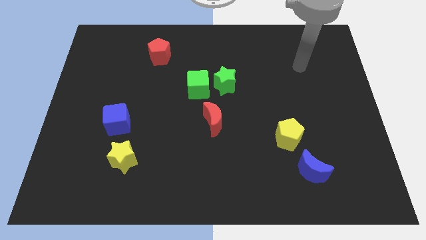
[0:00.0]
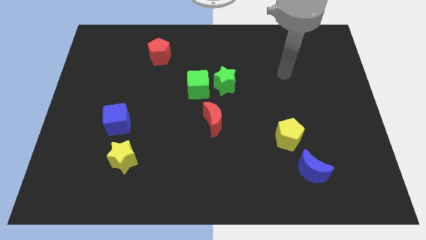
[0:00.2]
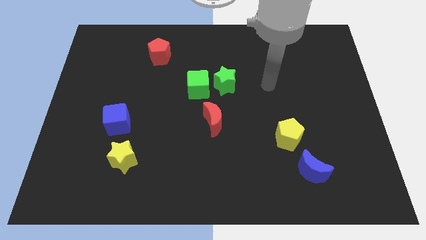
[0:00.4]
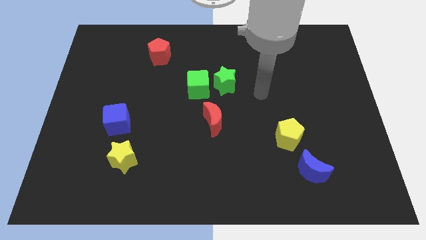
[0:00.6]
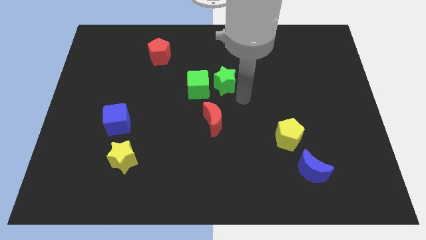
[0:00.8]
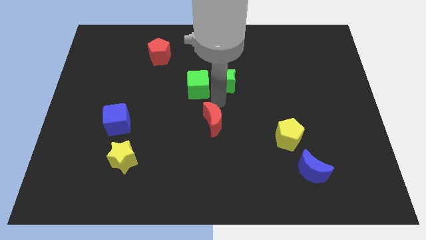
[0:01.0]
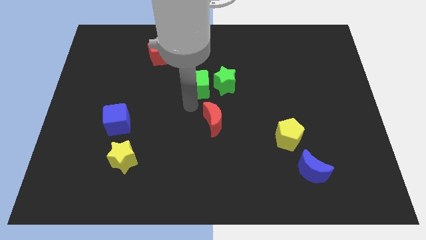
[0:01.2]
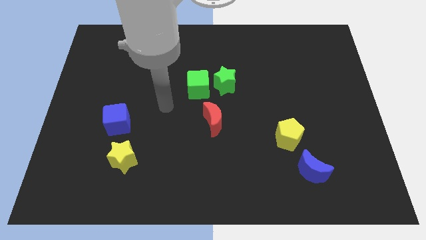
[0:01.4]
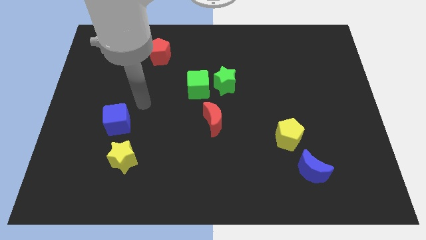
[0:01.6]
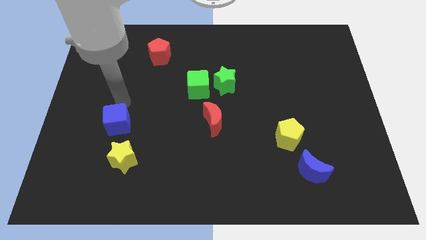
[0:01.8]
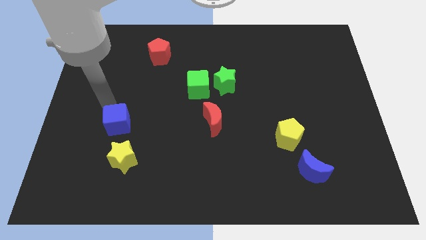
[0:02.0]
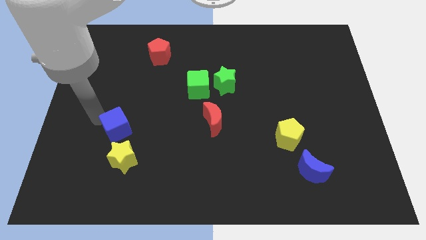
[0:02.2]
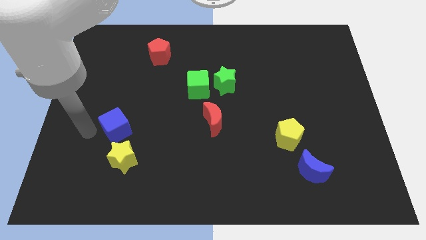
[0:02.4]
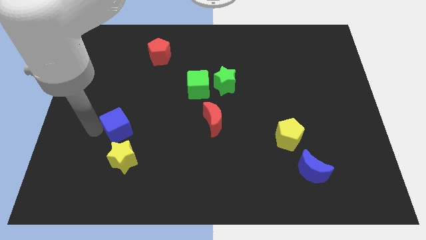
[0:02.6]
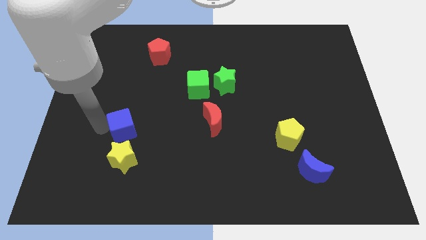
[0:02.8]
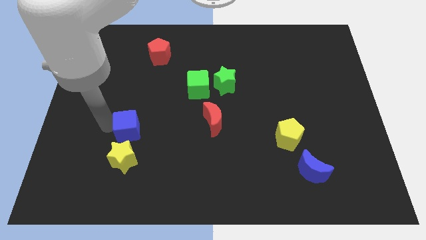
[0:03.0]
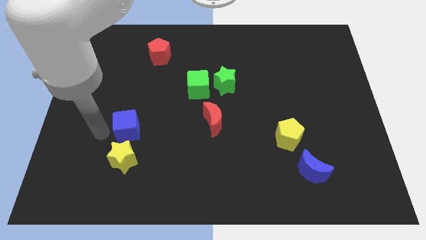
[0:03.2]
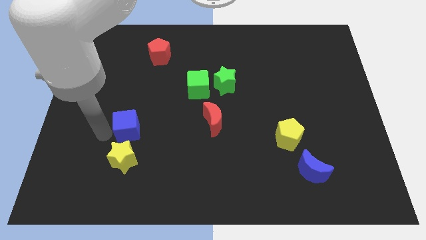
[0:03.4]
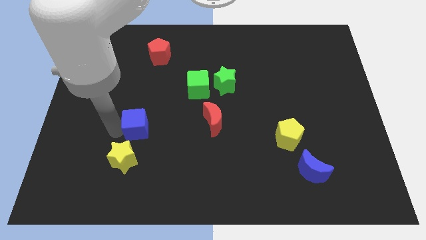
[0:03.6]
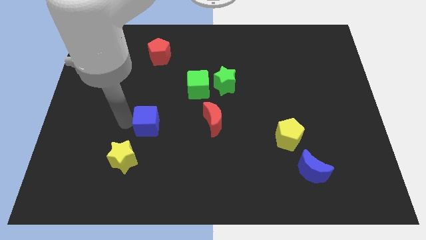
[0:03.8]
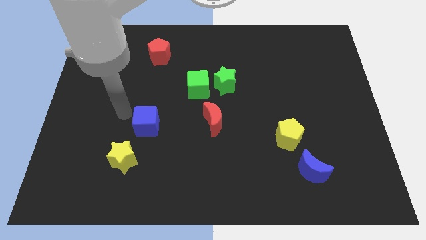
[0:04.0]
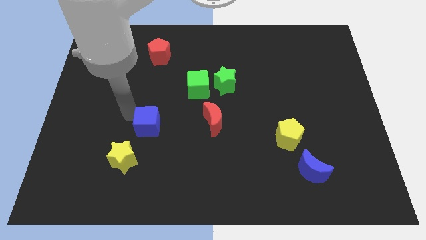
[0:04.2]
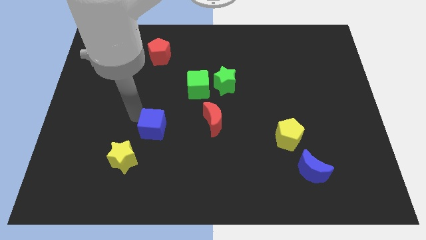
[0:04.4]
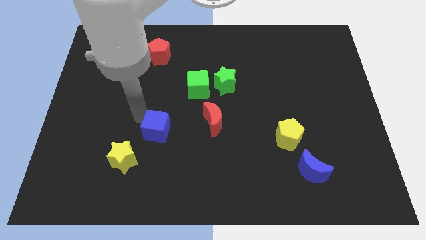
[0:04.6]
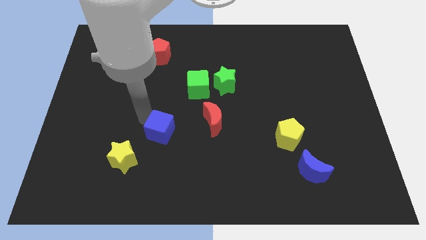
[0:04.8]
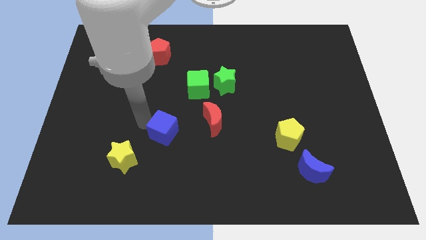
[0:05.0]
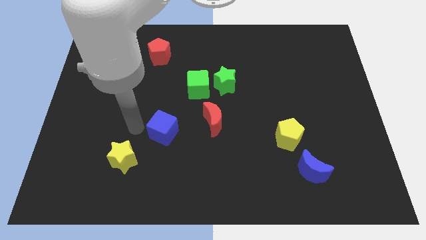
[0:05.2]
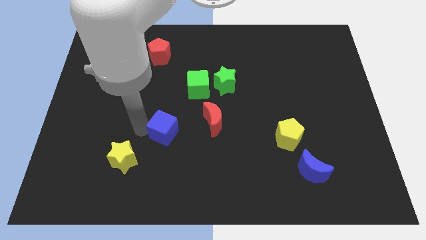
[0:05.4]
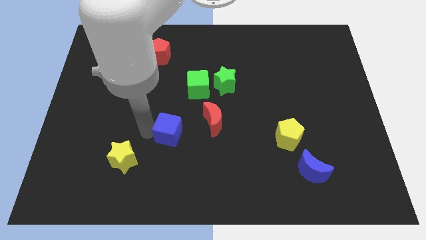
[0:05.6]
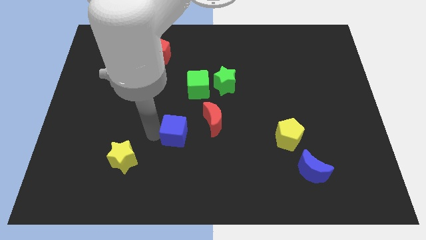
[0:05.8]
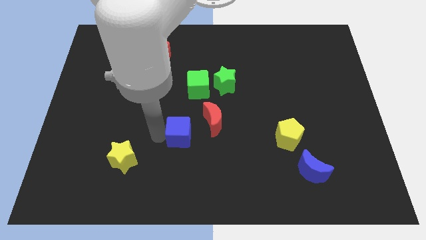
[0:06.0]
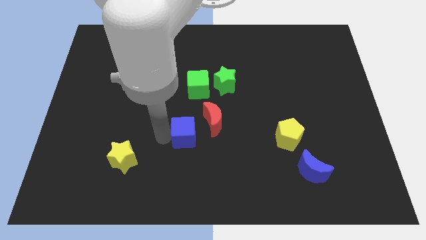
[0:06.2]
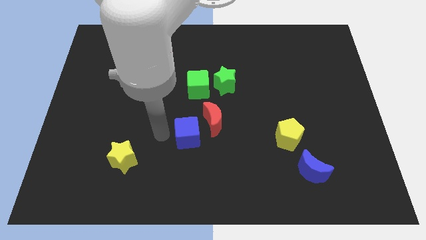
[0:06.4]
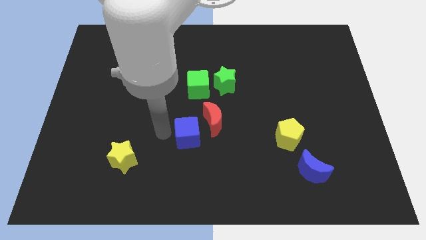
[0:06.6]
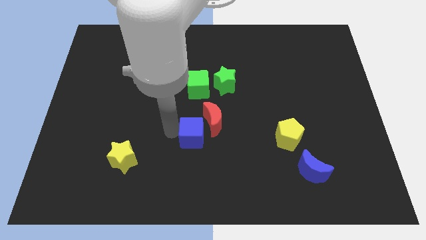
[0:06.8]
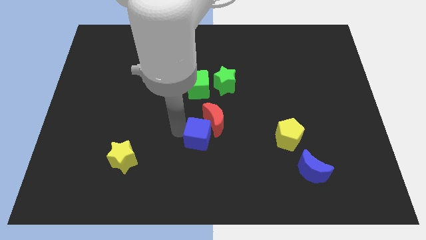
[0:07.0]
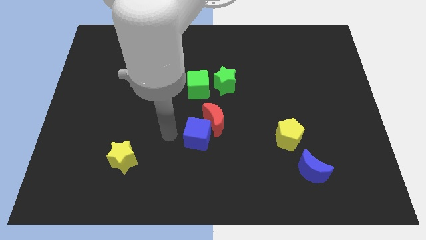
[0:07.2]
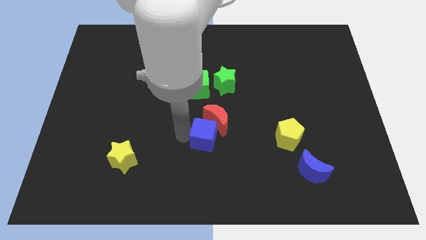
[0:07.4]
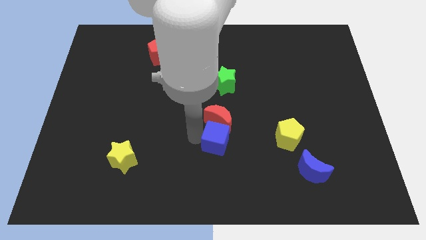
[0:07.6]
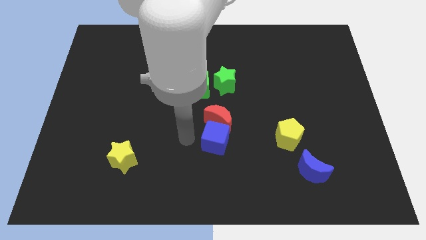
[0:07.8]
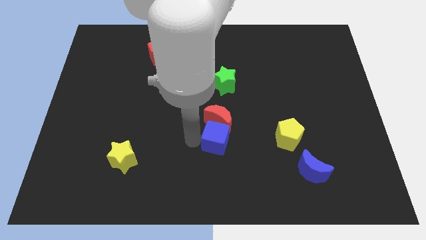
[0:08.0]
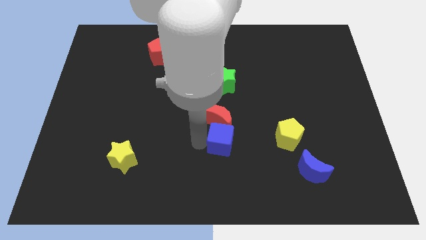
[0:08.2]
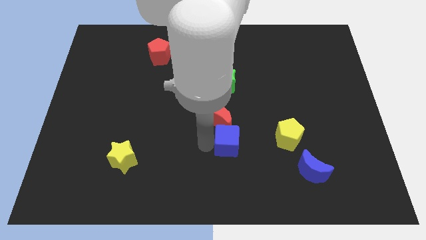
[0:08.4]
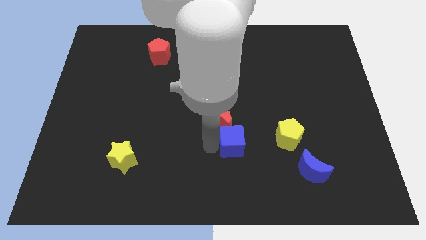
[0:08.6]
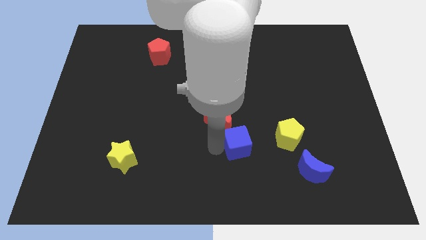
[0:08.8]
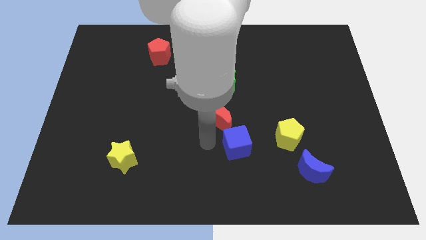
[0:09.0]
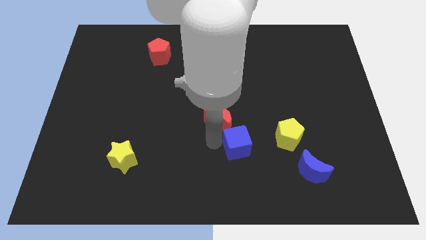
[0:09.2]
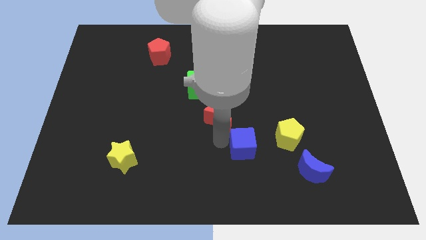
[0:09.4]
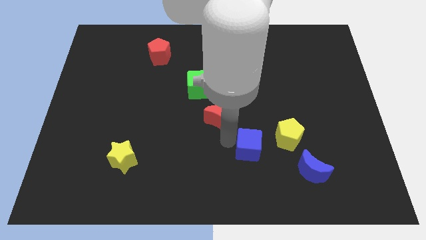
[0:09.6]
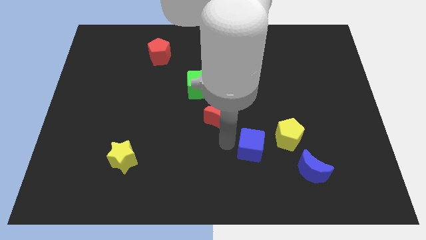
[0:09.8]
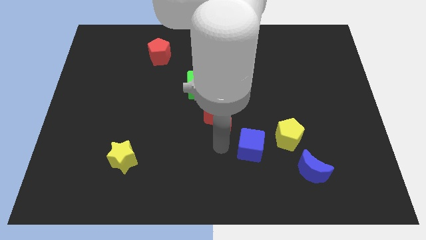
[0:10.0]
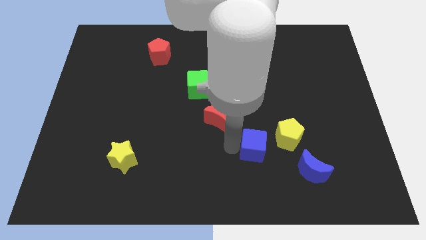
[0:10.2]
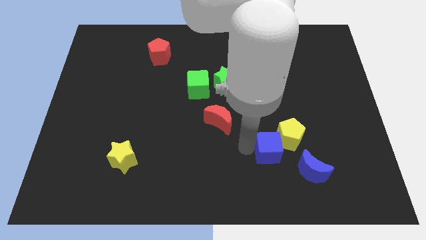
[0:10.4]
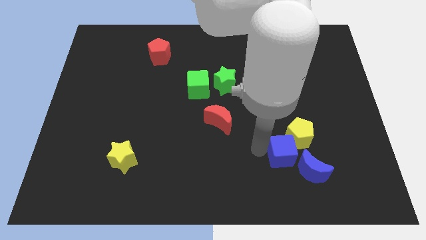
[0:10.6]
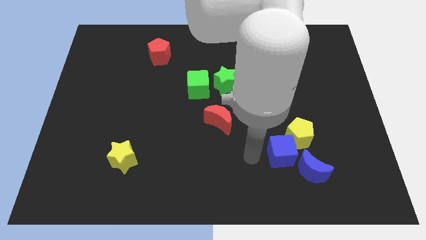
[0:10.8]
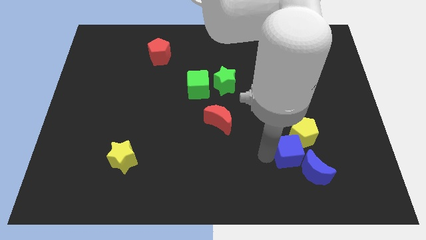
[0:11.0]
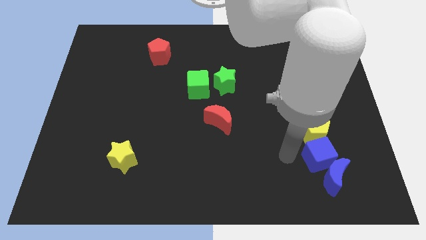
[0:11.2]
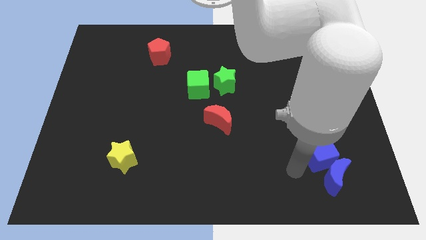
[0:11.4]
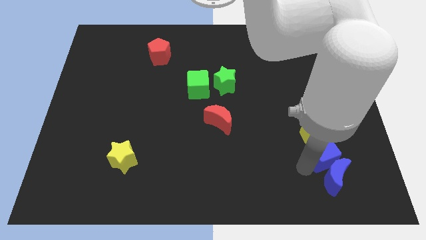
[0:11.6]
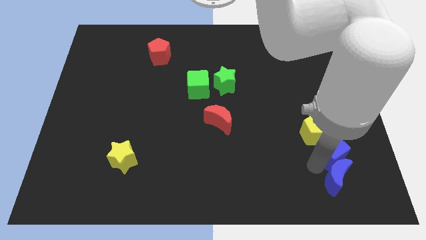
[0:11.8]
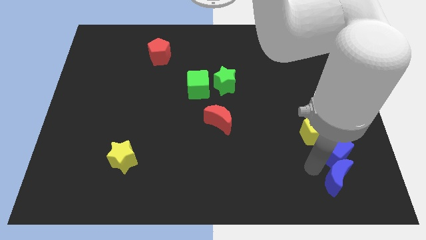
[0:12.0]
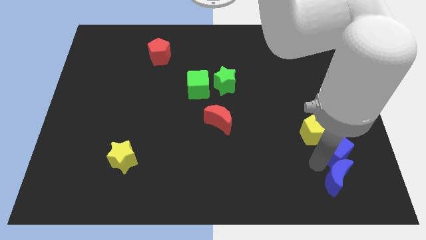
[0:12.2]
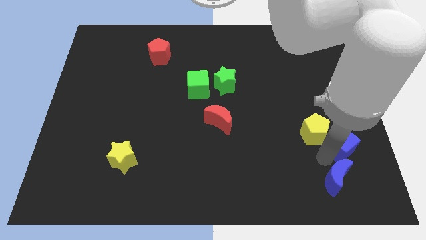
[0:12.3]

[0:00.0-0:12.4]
slide the blue cube just right of the yellow pentagon

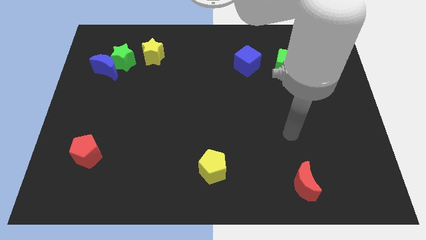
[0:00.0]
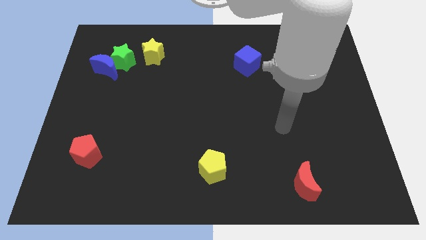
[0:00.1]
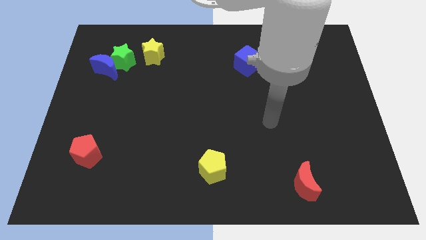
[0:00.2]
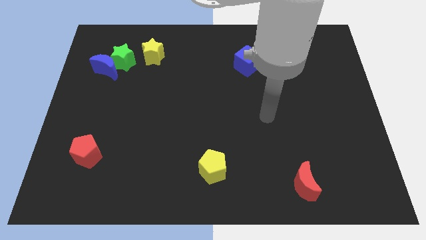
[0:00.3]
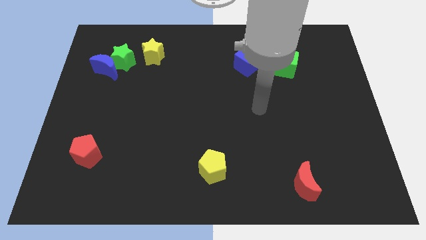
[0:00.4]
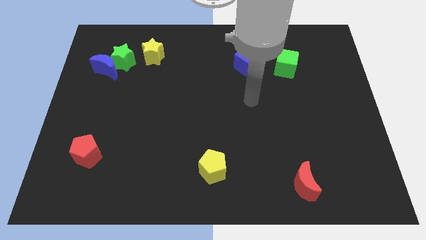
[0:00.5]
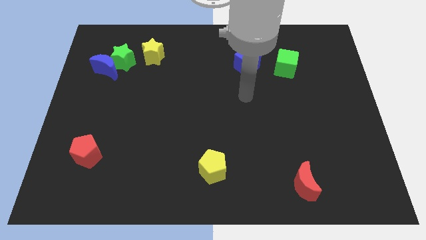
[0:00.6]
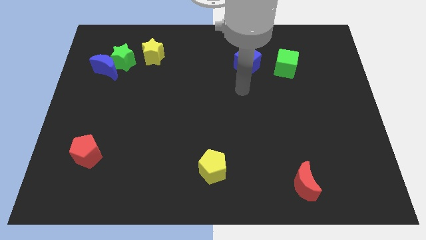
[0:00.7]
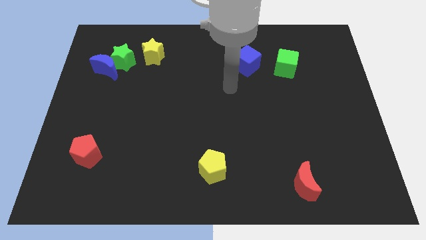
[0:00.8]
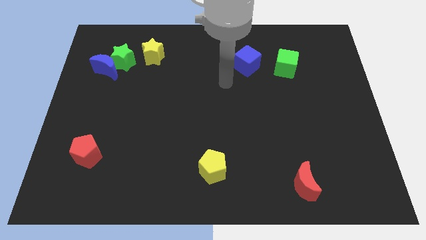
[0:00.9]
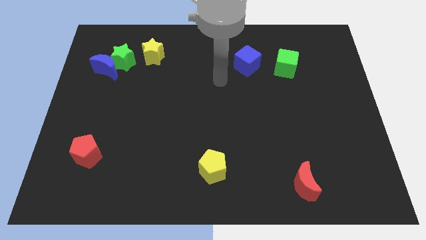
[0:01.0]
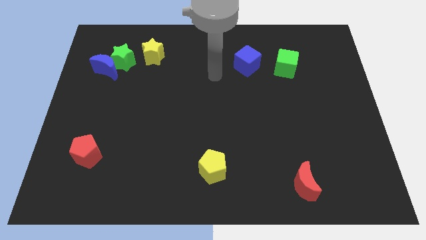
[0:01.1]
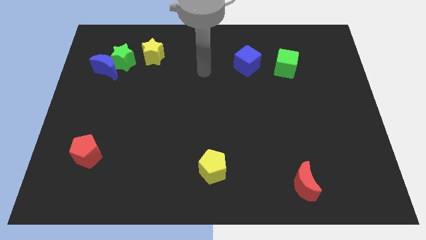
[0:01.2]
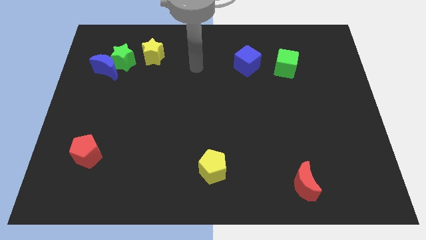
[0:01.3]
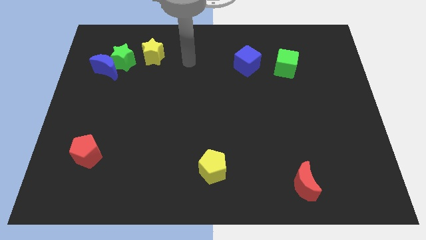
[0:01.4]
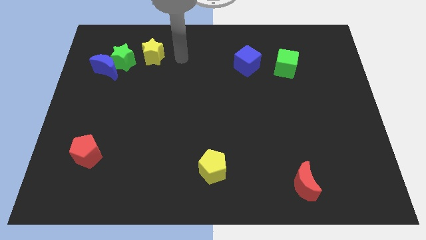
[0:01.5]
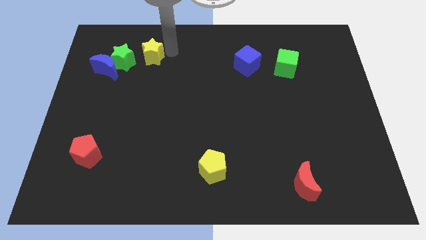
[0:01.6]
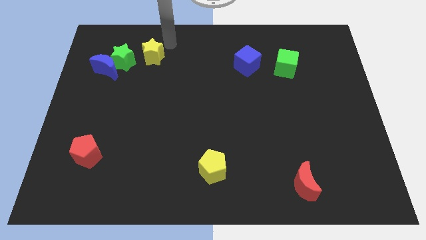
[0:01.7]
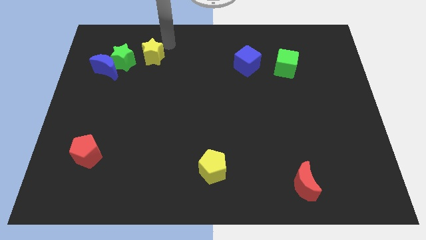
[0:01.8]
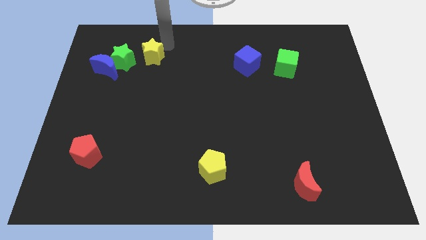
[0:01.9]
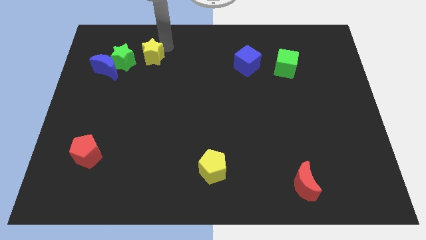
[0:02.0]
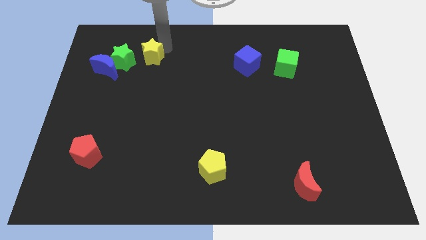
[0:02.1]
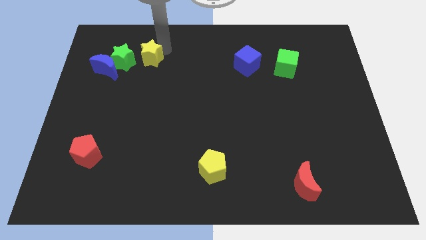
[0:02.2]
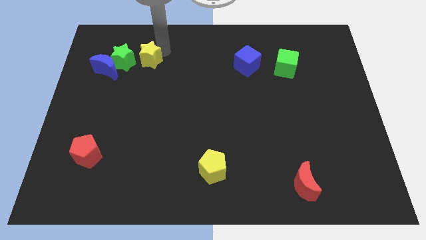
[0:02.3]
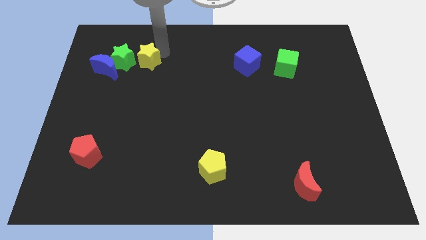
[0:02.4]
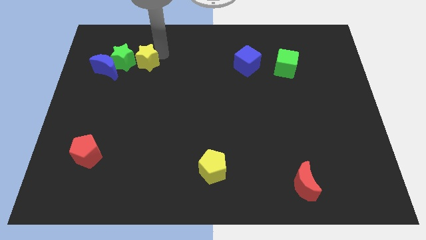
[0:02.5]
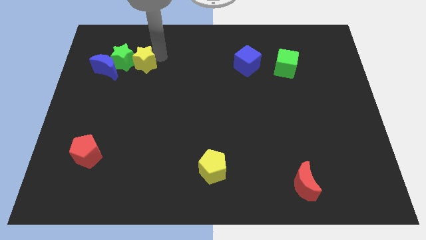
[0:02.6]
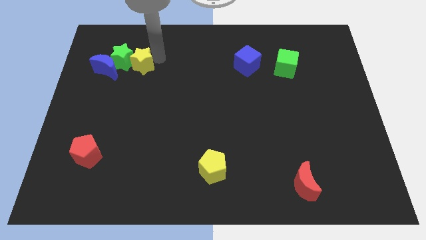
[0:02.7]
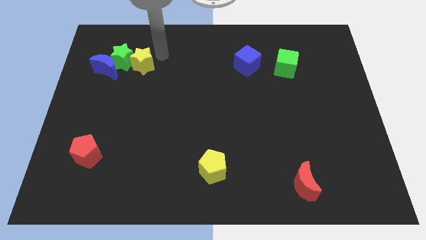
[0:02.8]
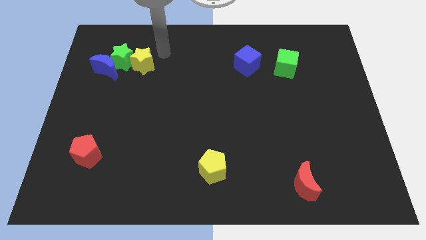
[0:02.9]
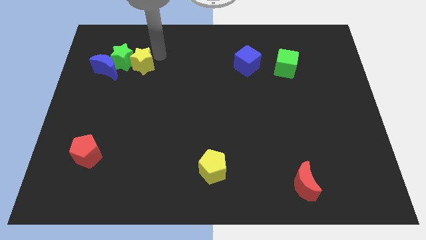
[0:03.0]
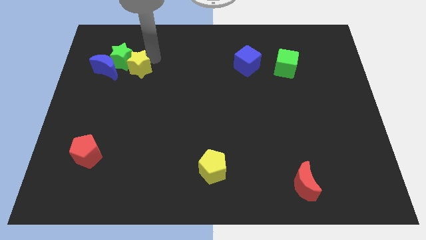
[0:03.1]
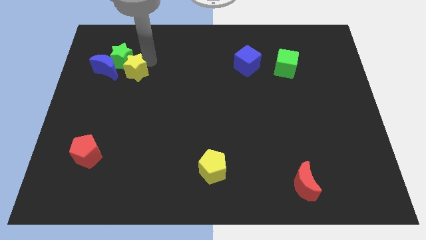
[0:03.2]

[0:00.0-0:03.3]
move the yellow star to the bottom of the green star
